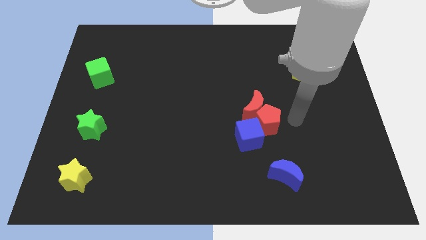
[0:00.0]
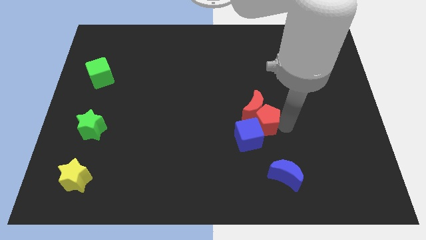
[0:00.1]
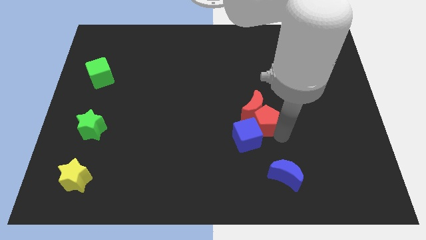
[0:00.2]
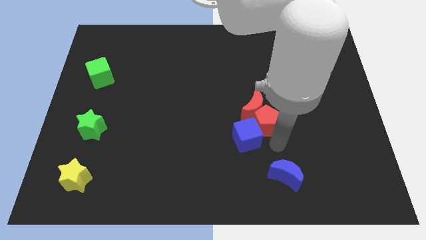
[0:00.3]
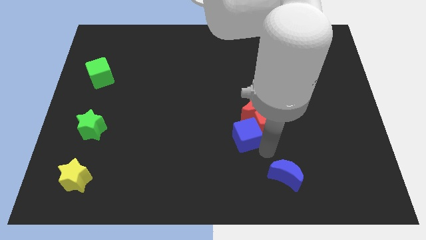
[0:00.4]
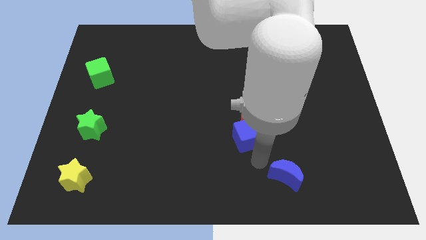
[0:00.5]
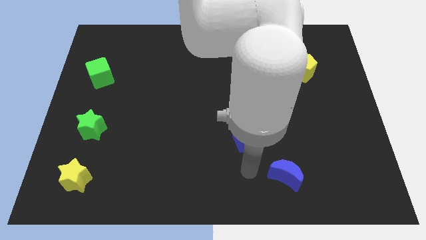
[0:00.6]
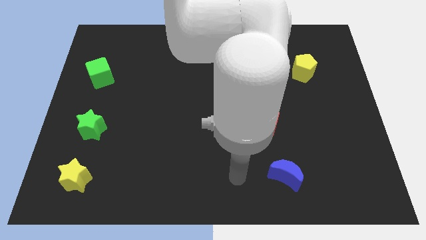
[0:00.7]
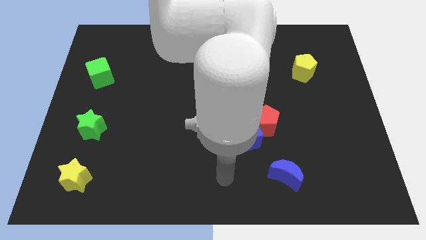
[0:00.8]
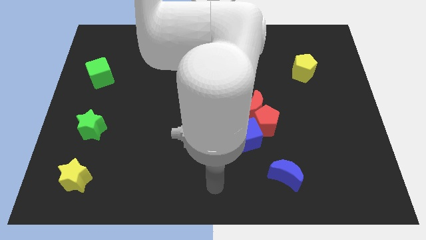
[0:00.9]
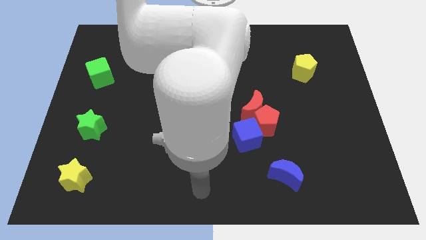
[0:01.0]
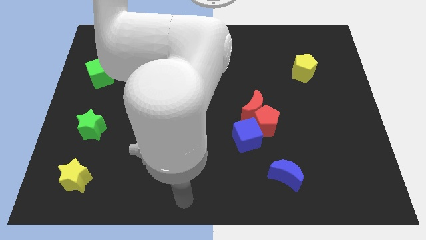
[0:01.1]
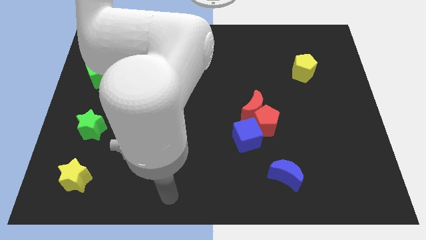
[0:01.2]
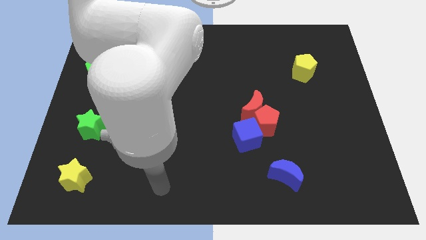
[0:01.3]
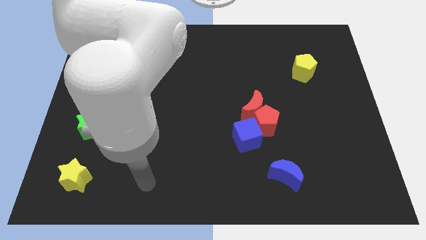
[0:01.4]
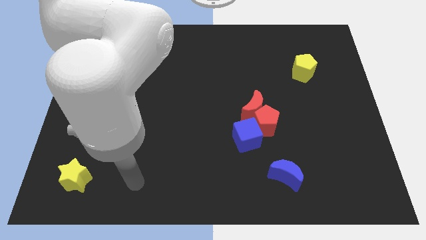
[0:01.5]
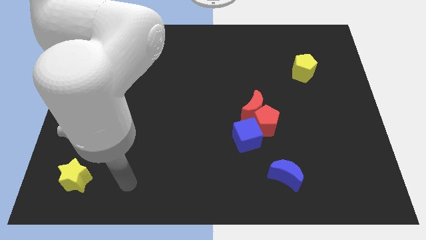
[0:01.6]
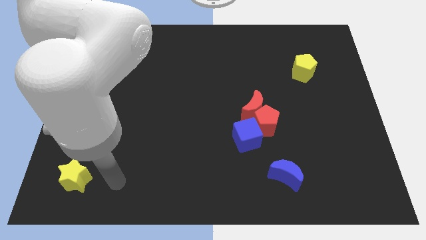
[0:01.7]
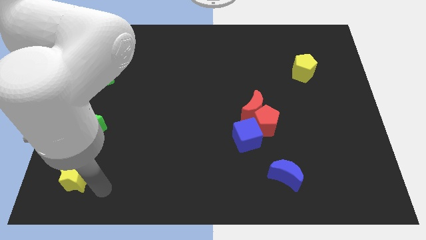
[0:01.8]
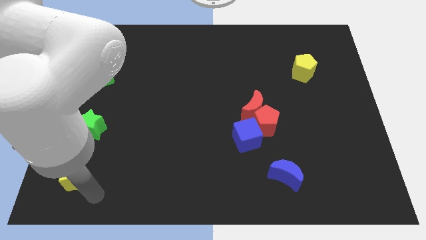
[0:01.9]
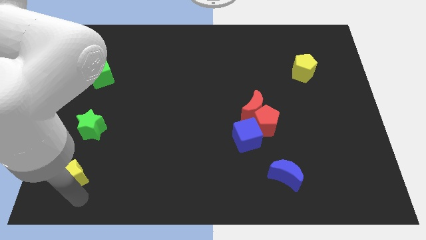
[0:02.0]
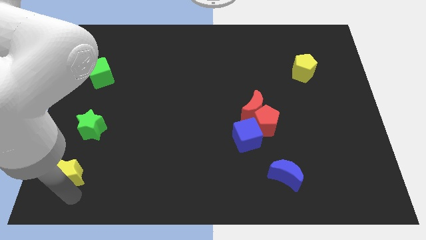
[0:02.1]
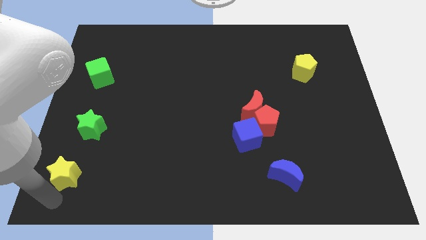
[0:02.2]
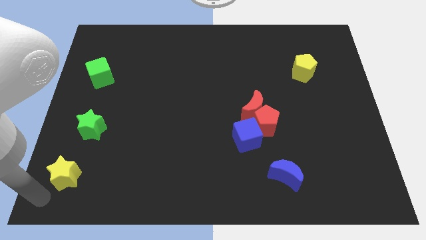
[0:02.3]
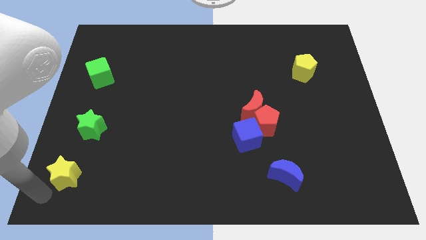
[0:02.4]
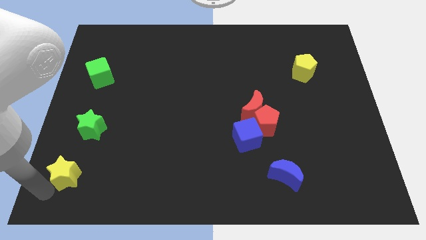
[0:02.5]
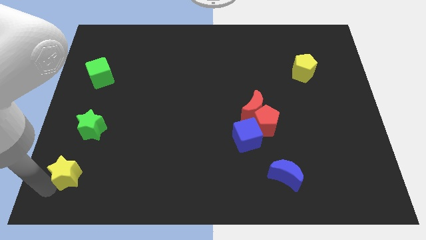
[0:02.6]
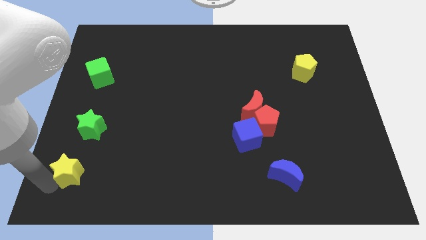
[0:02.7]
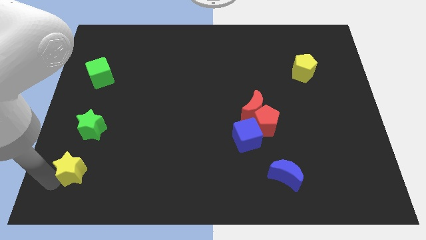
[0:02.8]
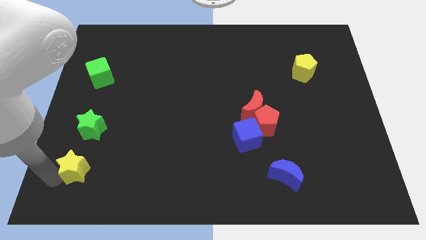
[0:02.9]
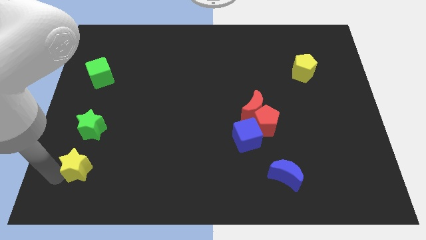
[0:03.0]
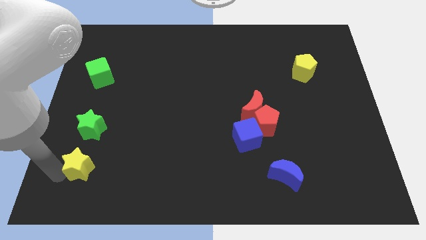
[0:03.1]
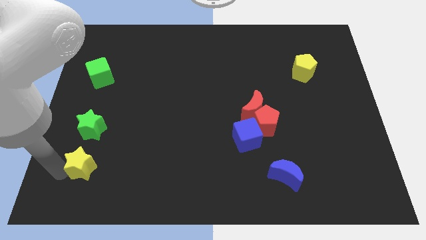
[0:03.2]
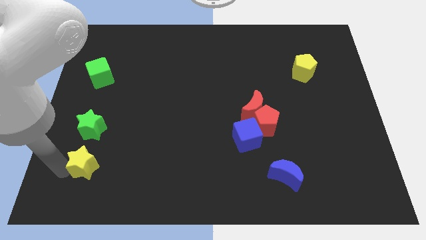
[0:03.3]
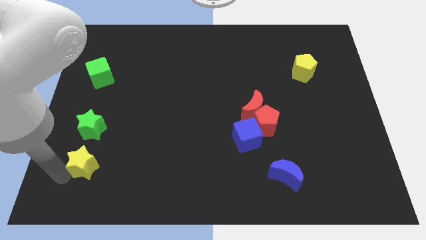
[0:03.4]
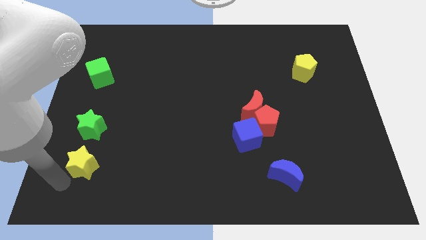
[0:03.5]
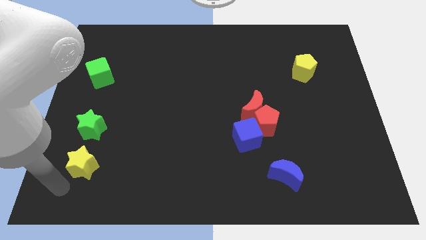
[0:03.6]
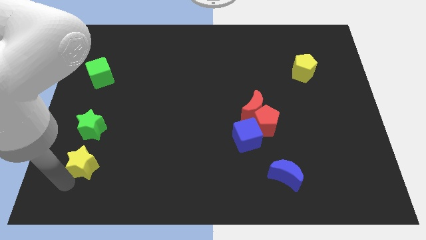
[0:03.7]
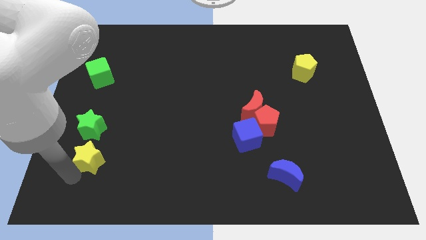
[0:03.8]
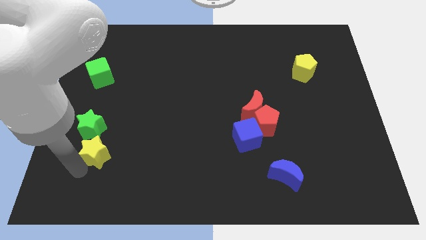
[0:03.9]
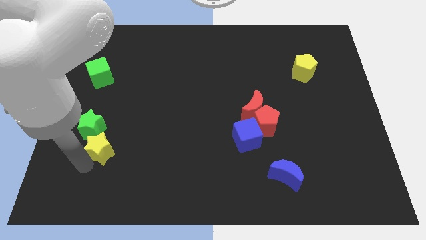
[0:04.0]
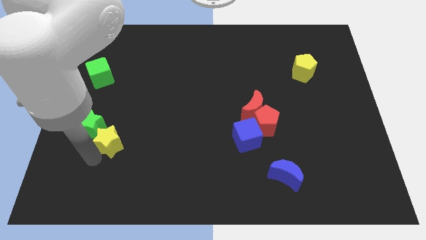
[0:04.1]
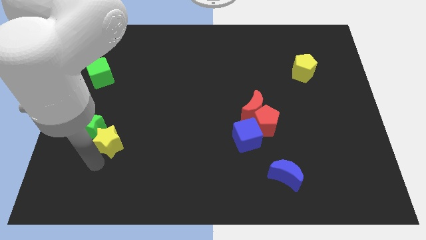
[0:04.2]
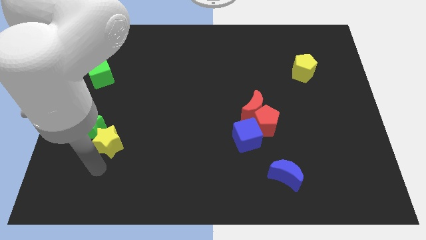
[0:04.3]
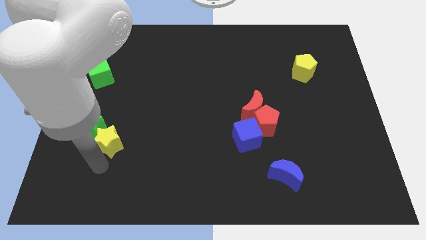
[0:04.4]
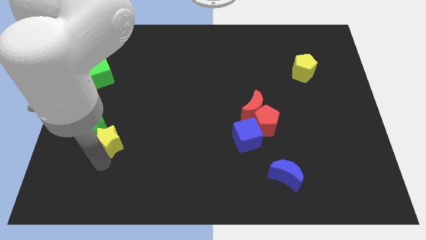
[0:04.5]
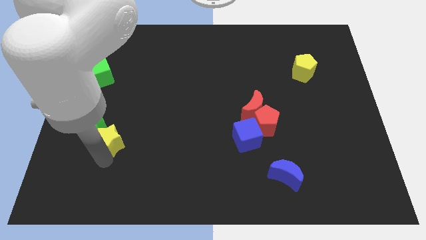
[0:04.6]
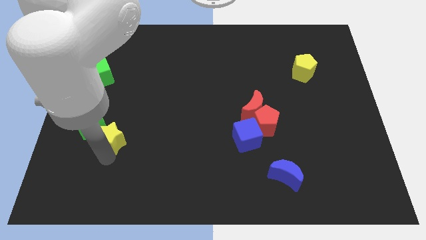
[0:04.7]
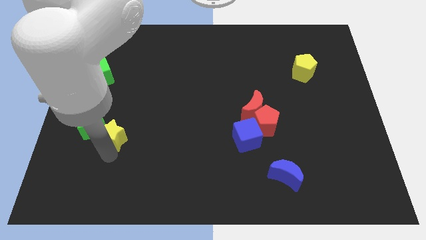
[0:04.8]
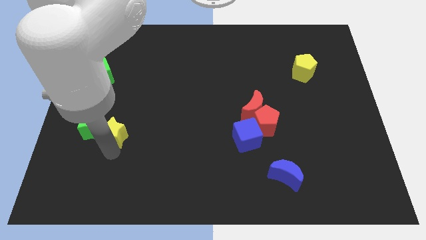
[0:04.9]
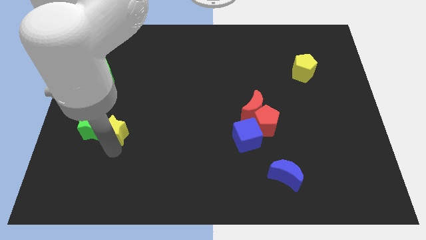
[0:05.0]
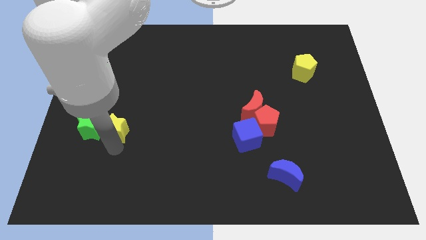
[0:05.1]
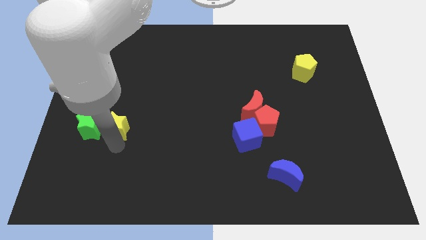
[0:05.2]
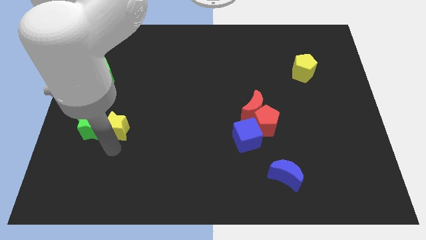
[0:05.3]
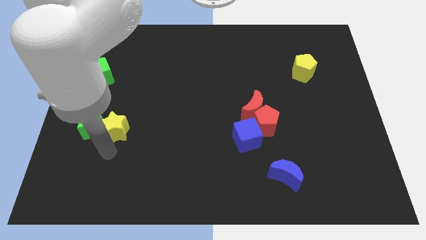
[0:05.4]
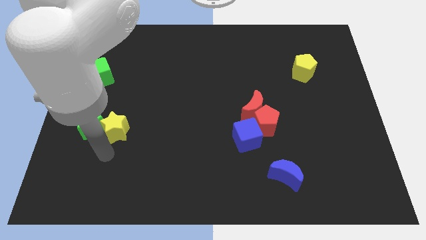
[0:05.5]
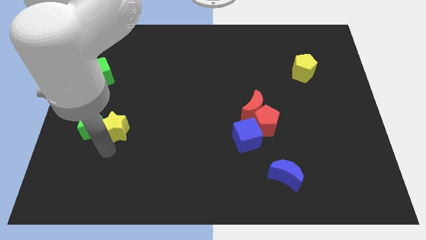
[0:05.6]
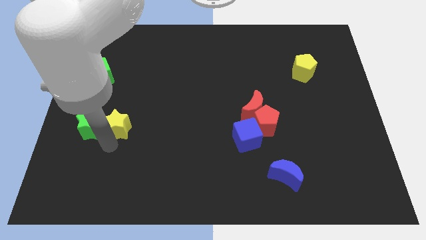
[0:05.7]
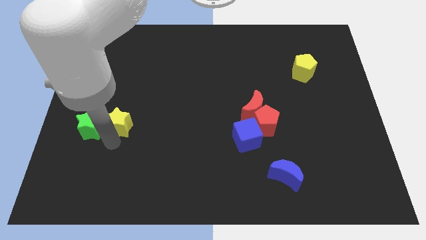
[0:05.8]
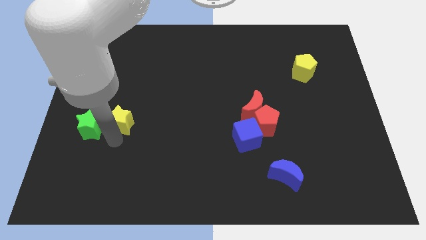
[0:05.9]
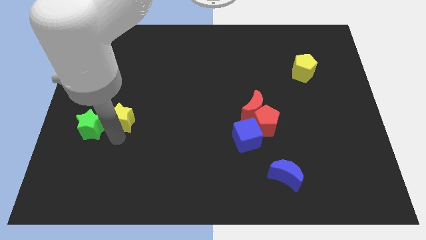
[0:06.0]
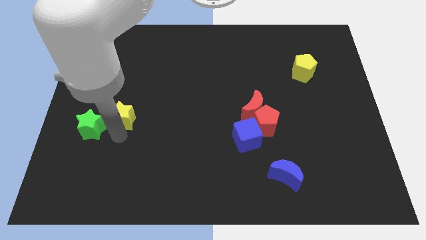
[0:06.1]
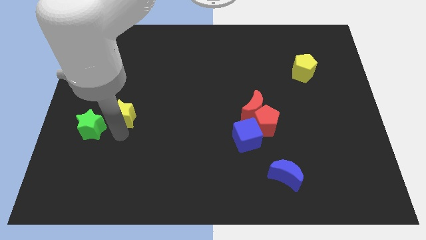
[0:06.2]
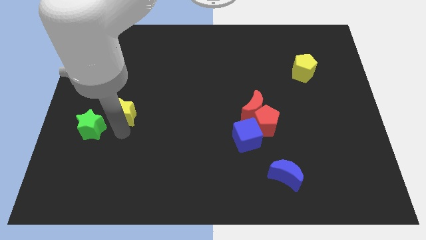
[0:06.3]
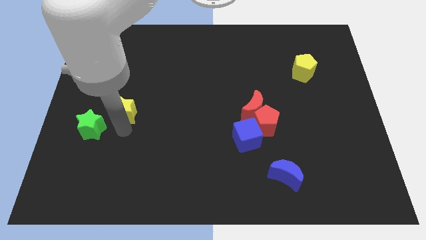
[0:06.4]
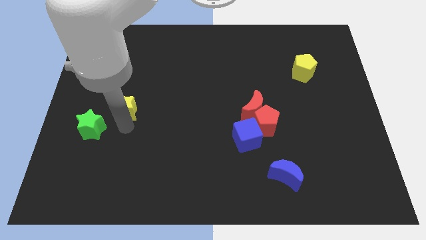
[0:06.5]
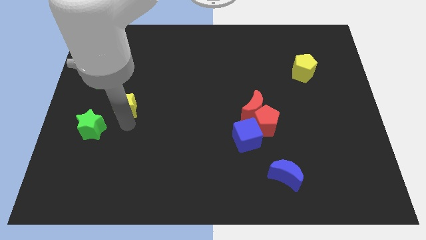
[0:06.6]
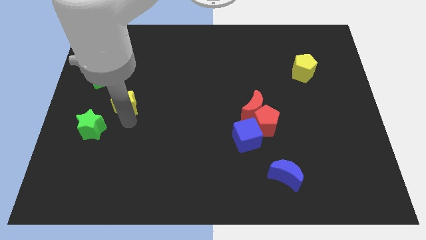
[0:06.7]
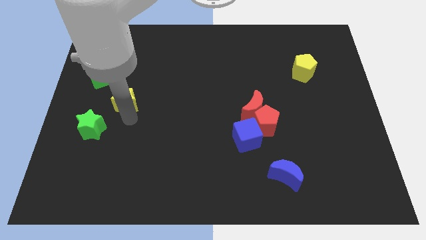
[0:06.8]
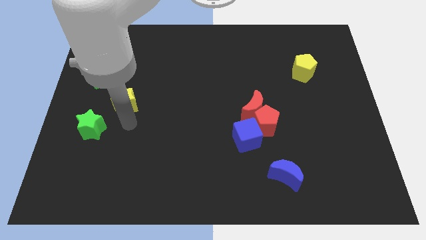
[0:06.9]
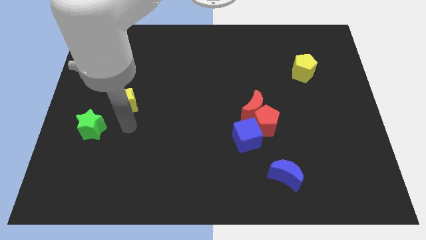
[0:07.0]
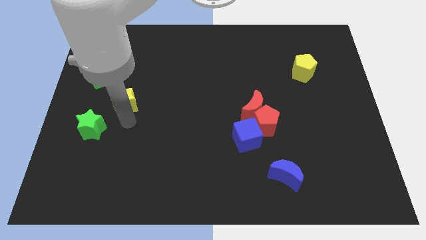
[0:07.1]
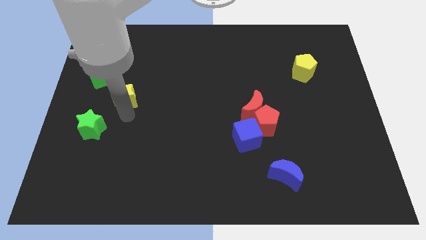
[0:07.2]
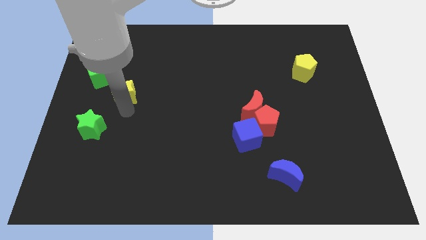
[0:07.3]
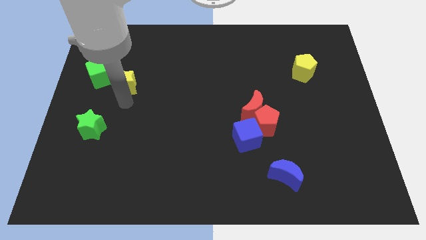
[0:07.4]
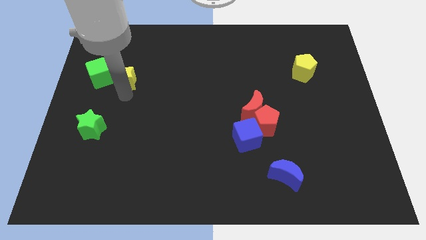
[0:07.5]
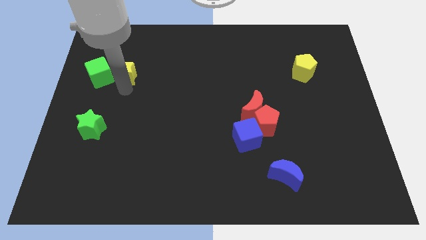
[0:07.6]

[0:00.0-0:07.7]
slide the yellow star diagonally up and to the right of the green cube
